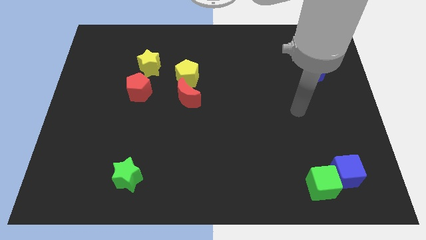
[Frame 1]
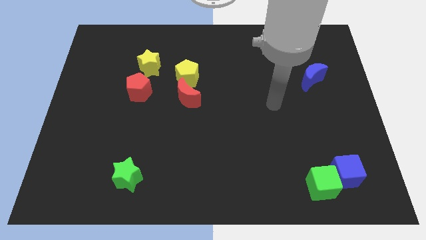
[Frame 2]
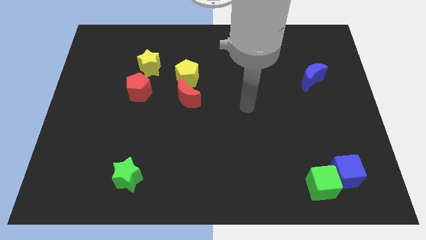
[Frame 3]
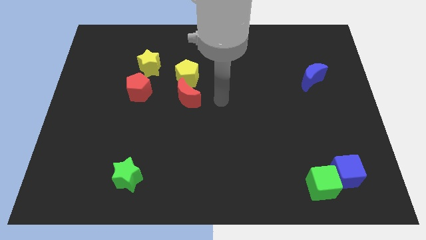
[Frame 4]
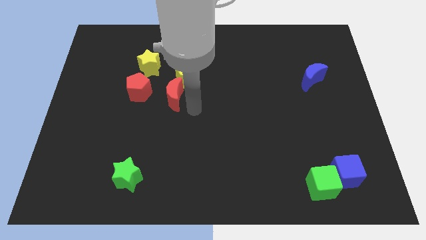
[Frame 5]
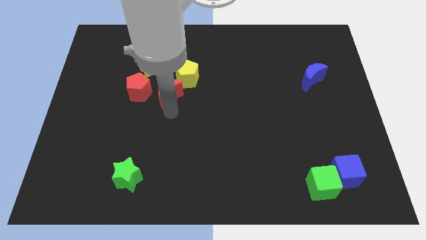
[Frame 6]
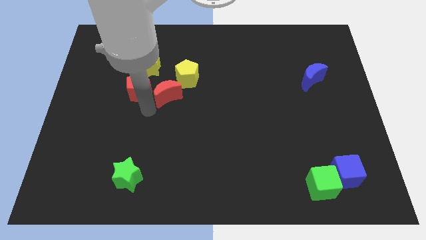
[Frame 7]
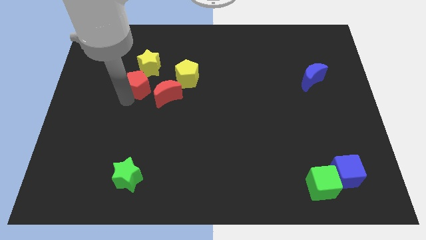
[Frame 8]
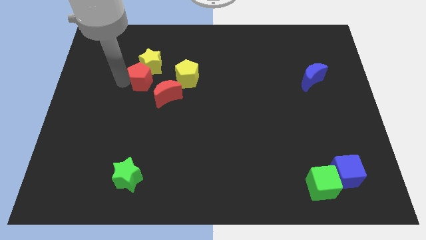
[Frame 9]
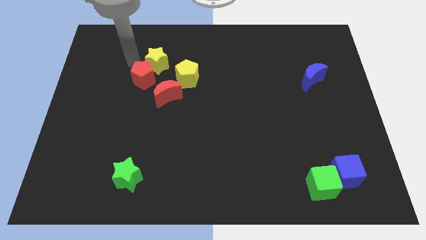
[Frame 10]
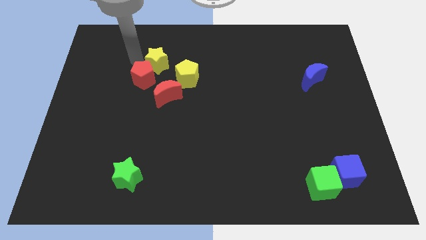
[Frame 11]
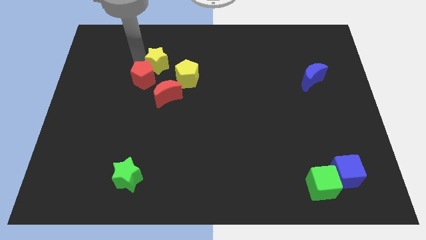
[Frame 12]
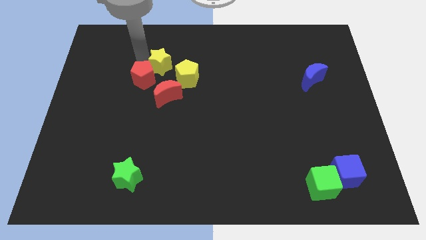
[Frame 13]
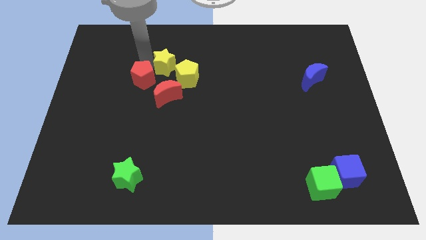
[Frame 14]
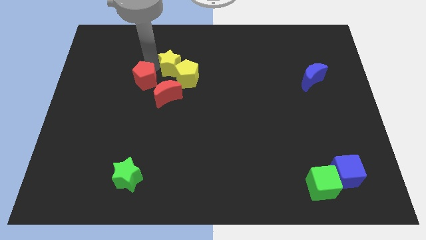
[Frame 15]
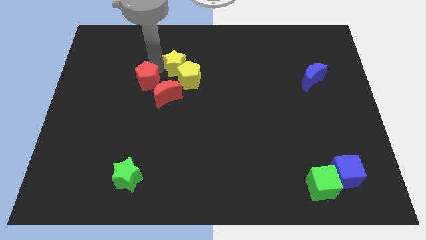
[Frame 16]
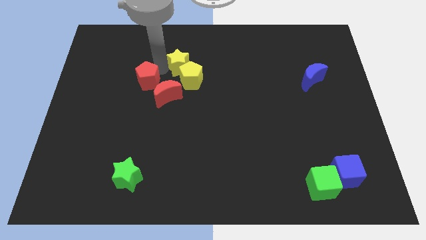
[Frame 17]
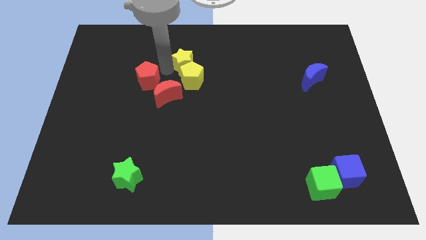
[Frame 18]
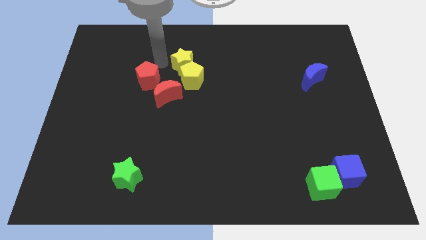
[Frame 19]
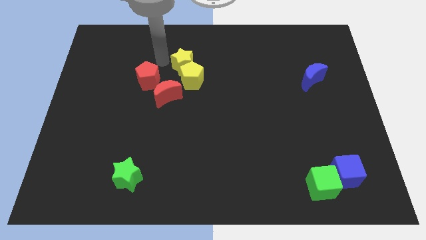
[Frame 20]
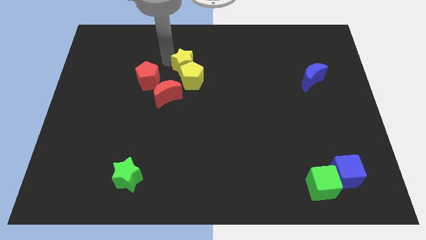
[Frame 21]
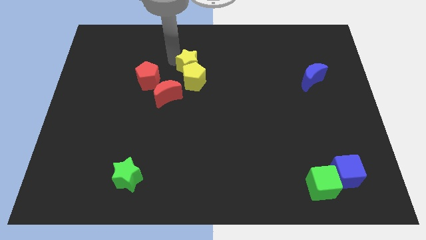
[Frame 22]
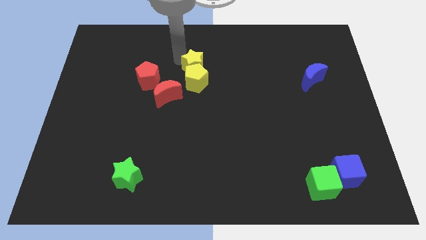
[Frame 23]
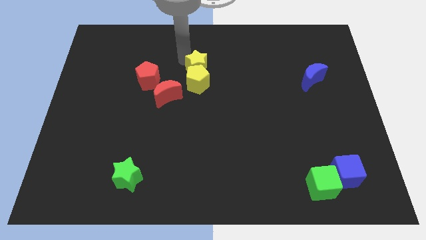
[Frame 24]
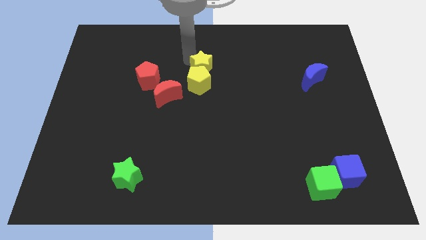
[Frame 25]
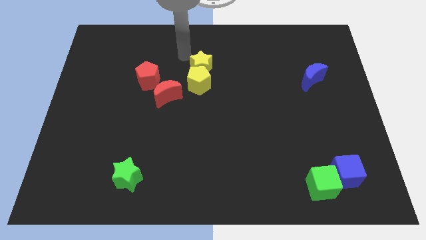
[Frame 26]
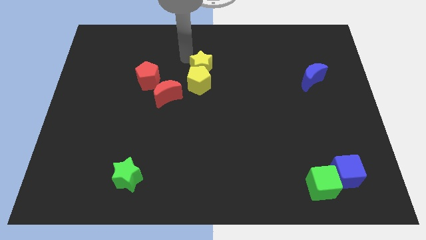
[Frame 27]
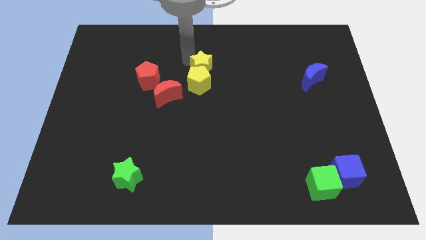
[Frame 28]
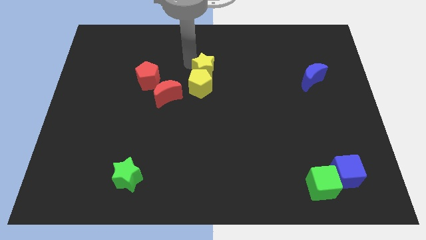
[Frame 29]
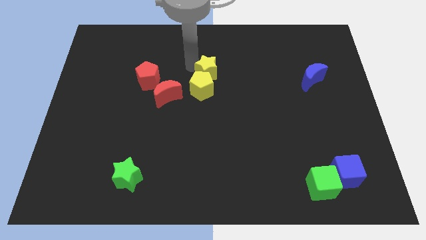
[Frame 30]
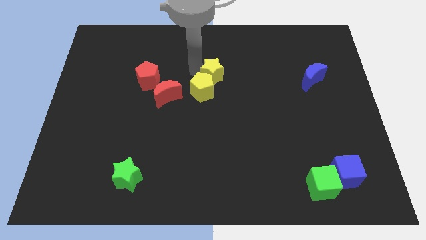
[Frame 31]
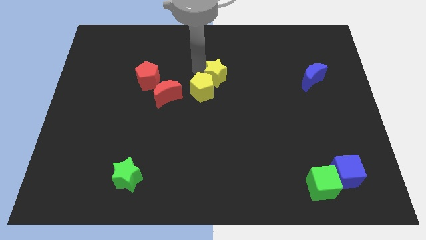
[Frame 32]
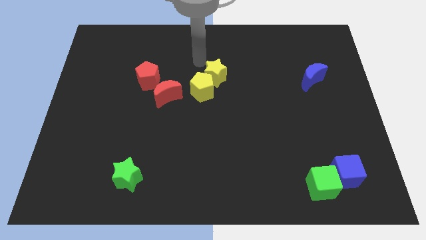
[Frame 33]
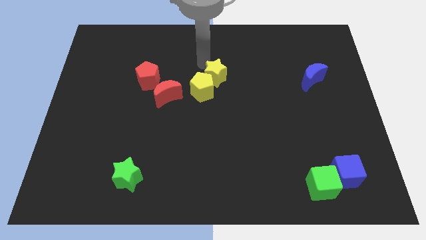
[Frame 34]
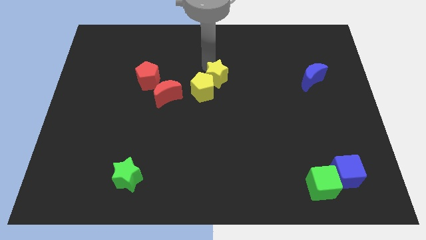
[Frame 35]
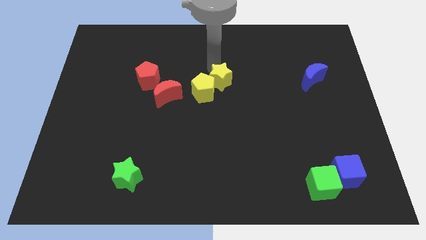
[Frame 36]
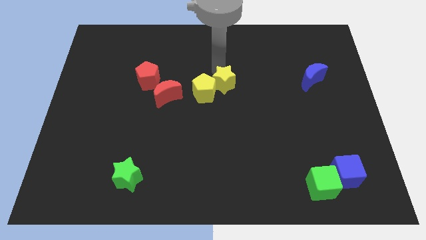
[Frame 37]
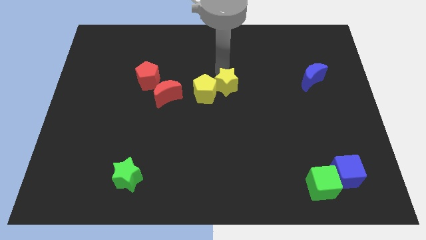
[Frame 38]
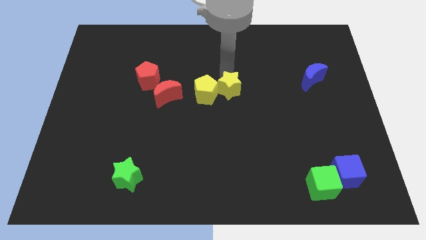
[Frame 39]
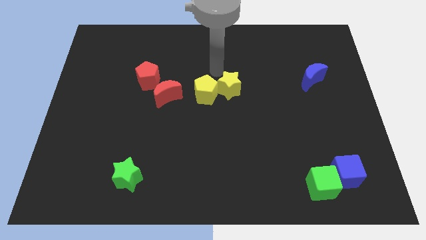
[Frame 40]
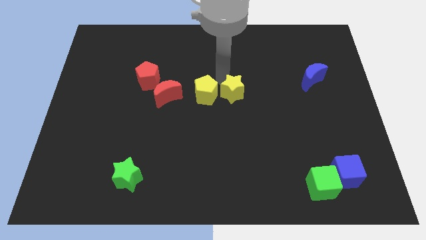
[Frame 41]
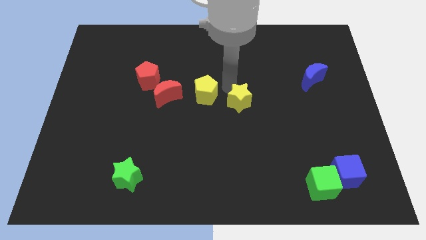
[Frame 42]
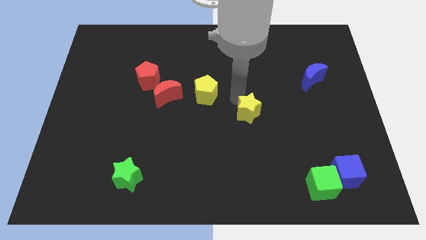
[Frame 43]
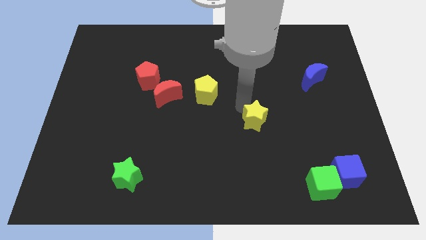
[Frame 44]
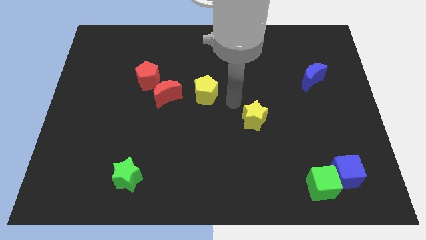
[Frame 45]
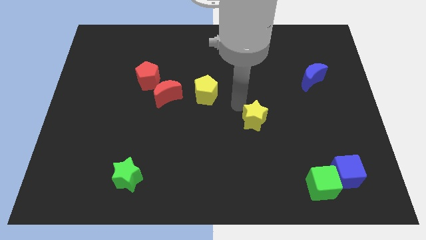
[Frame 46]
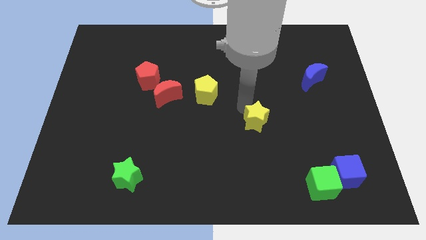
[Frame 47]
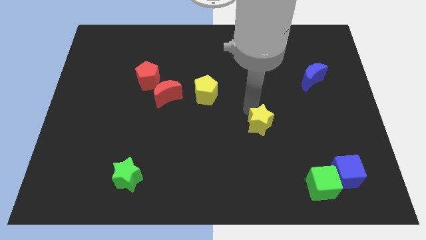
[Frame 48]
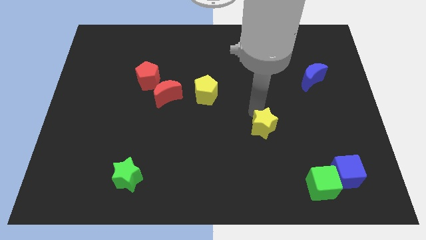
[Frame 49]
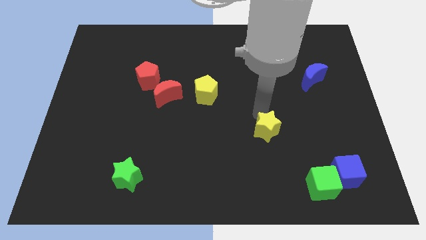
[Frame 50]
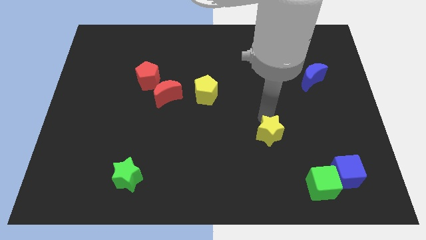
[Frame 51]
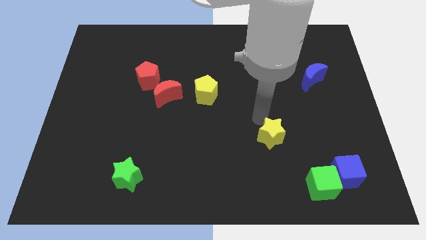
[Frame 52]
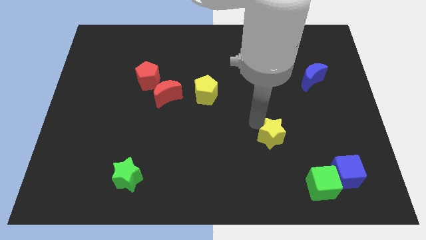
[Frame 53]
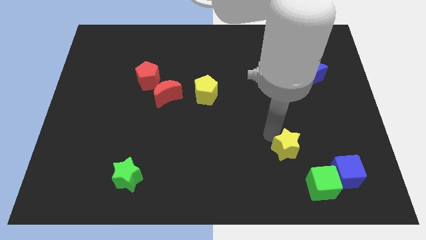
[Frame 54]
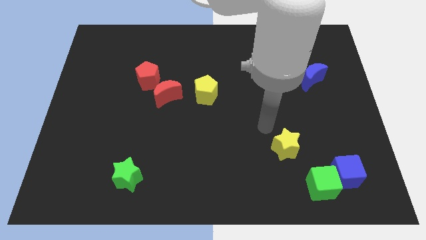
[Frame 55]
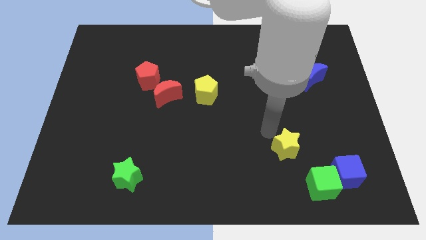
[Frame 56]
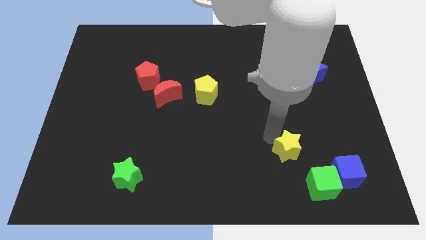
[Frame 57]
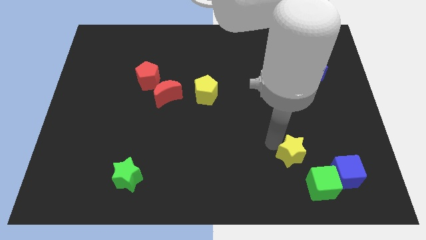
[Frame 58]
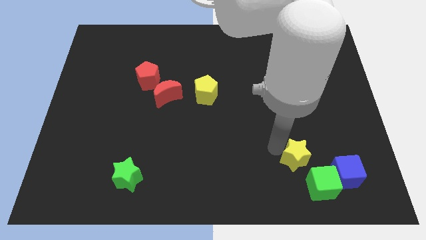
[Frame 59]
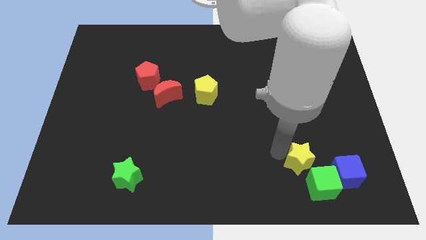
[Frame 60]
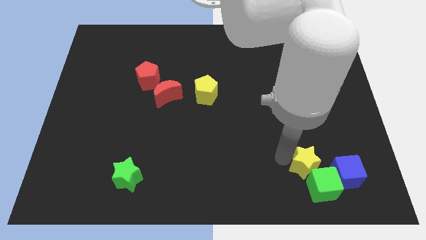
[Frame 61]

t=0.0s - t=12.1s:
put the yellow star next to the green cube

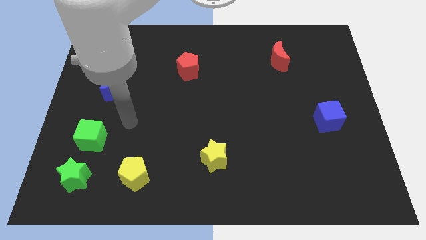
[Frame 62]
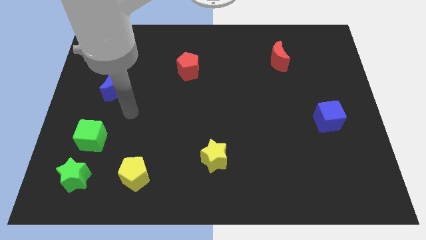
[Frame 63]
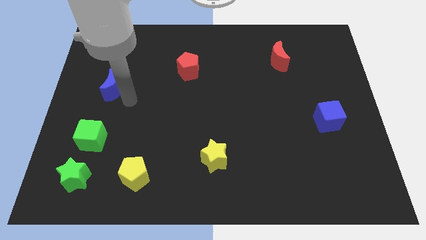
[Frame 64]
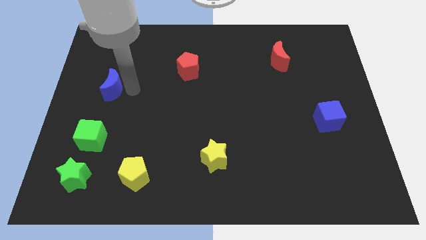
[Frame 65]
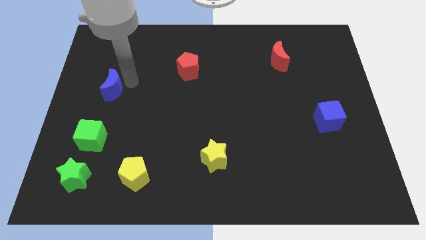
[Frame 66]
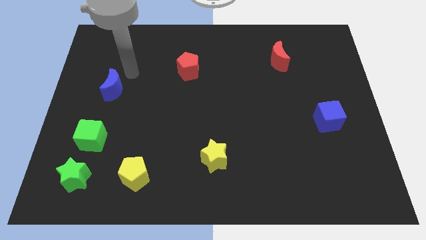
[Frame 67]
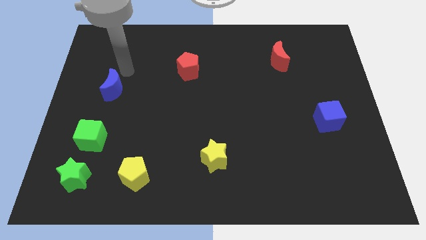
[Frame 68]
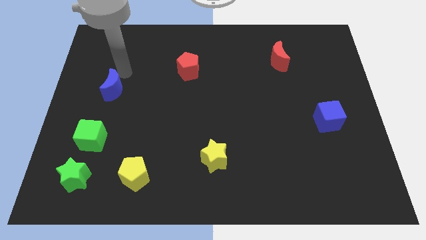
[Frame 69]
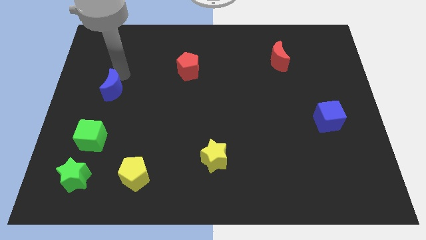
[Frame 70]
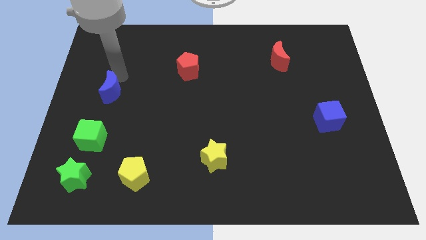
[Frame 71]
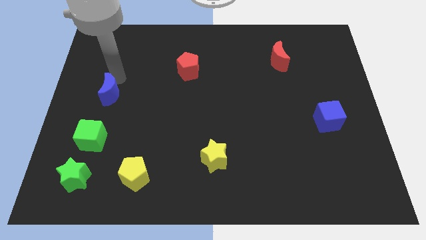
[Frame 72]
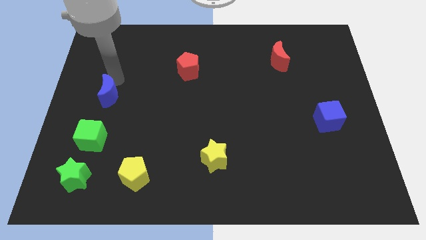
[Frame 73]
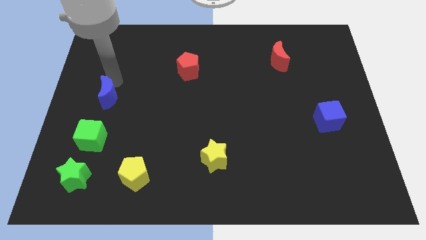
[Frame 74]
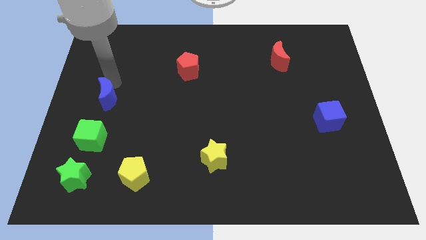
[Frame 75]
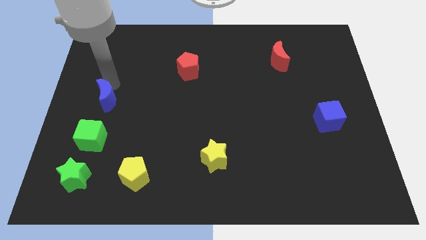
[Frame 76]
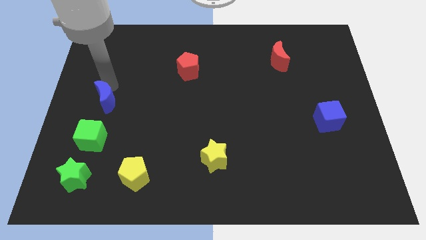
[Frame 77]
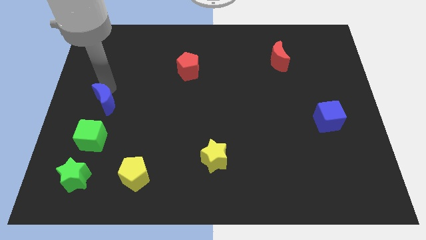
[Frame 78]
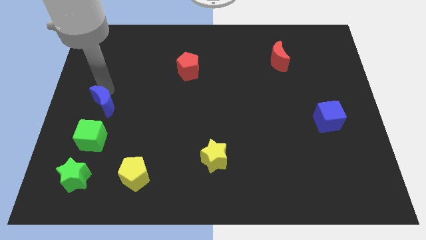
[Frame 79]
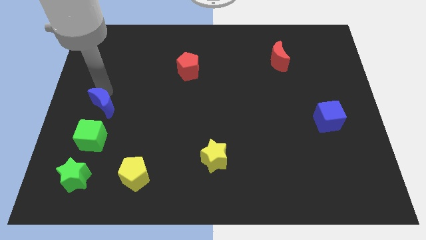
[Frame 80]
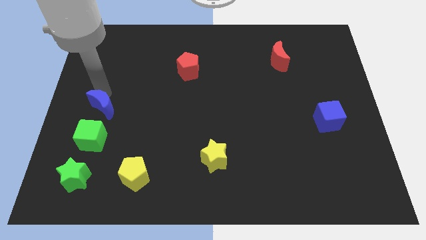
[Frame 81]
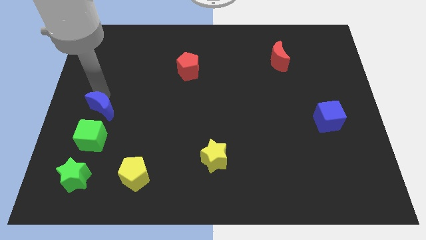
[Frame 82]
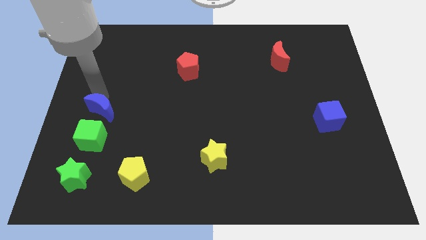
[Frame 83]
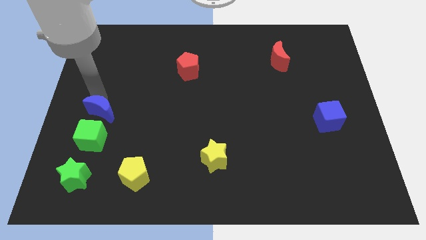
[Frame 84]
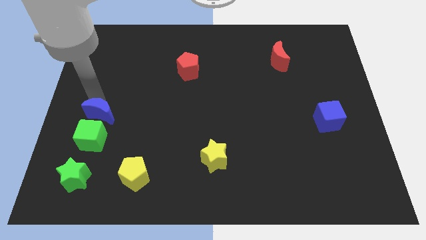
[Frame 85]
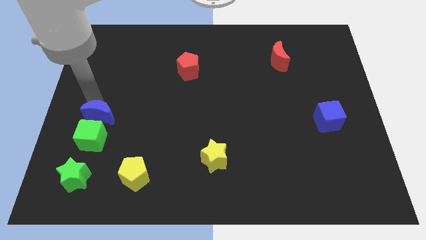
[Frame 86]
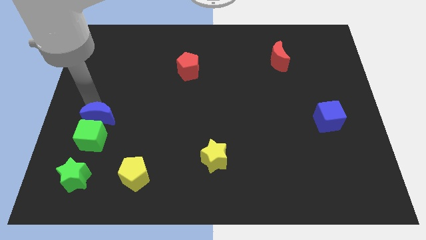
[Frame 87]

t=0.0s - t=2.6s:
move the blue moon next to the green cube
